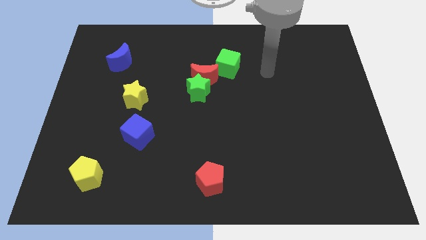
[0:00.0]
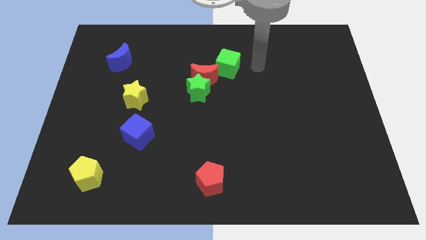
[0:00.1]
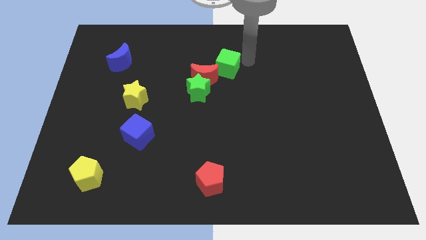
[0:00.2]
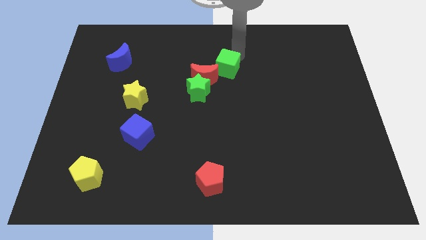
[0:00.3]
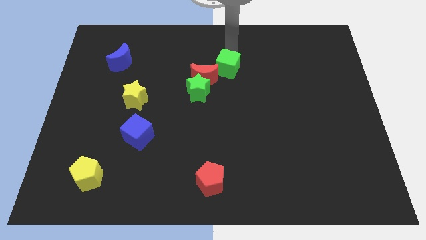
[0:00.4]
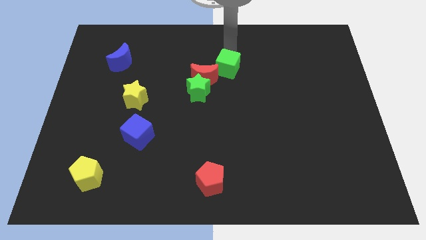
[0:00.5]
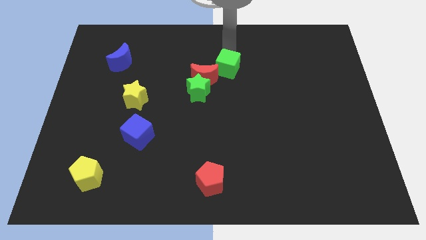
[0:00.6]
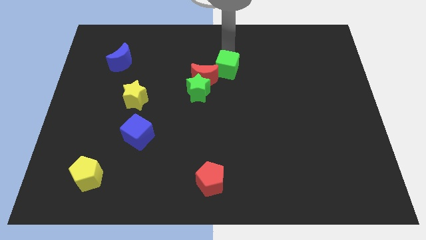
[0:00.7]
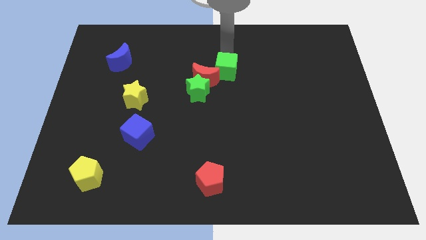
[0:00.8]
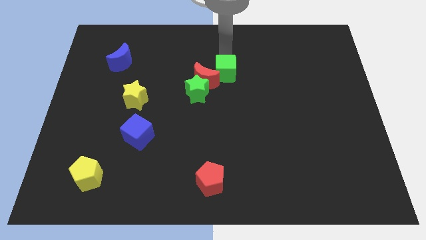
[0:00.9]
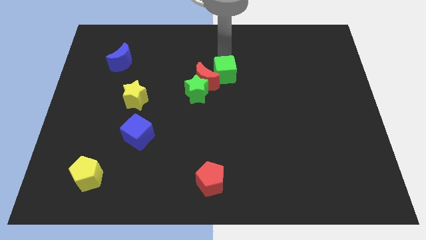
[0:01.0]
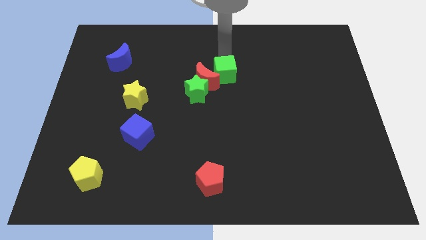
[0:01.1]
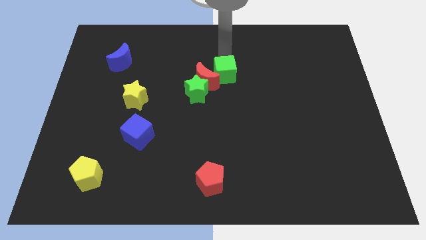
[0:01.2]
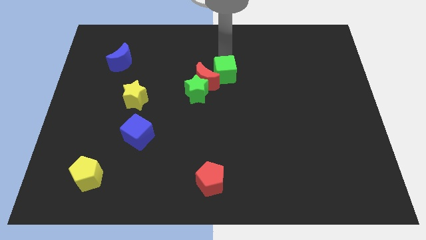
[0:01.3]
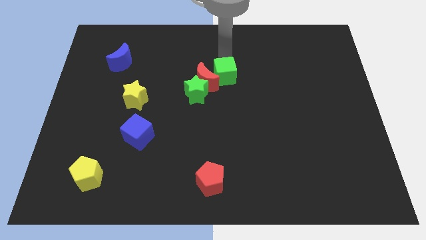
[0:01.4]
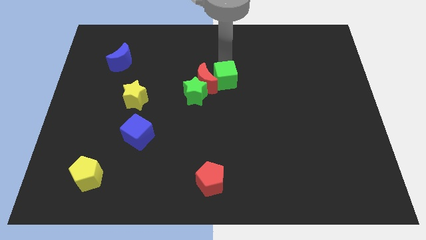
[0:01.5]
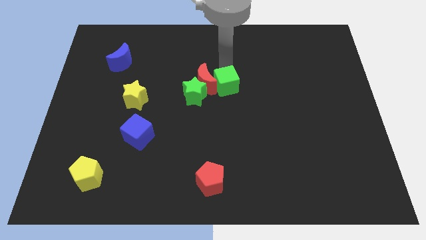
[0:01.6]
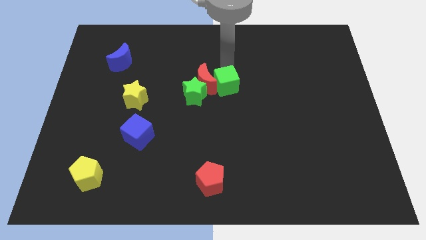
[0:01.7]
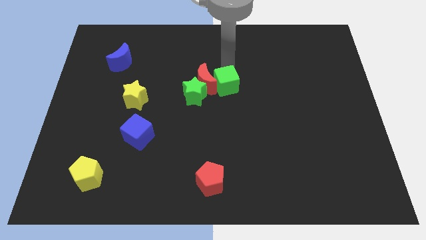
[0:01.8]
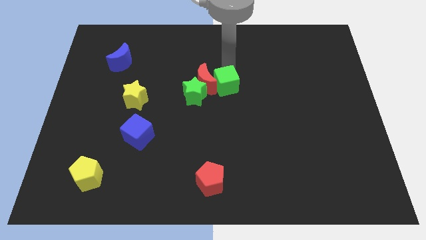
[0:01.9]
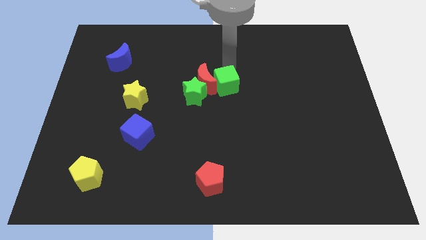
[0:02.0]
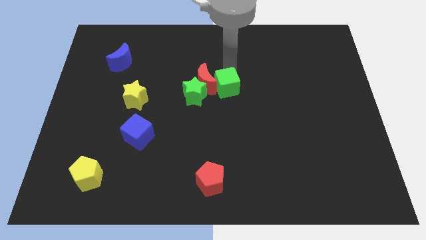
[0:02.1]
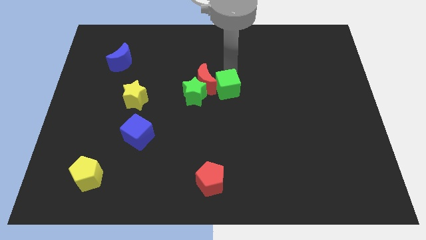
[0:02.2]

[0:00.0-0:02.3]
move the green cube downwards a little

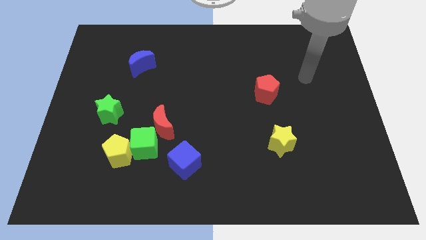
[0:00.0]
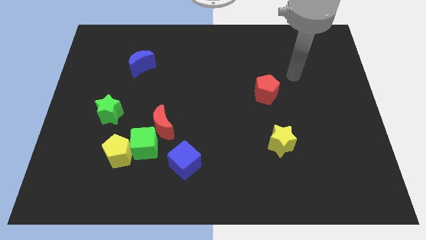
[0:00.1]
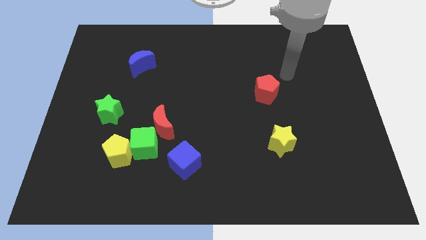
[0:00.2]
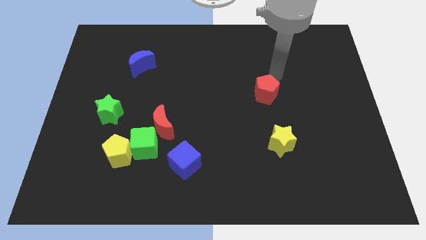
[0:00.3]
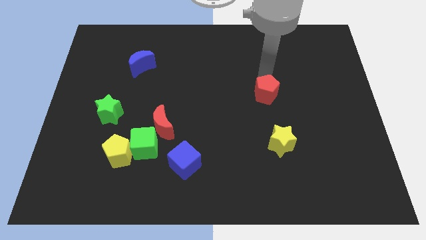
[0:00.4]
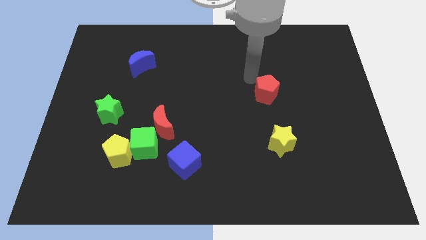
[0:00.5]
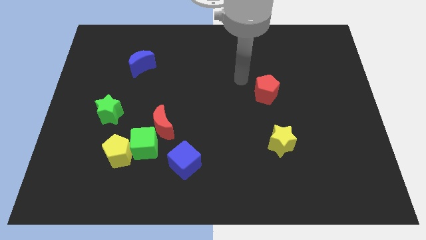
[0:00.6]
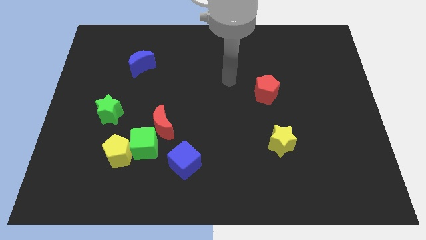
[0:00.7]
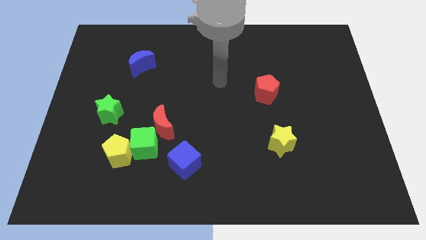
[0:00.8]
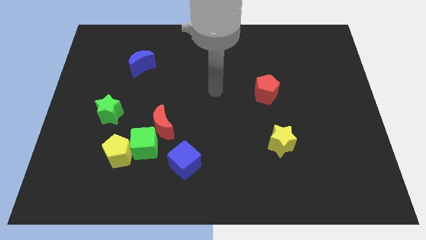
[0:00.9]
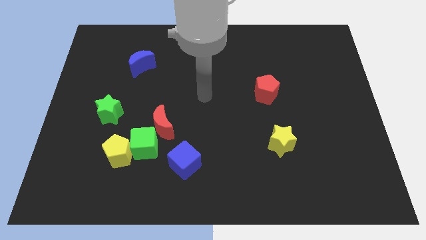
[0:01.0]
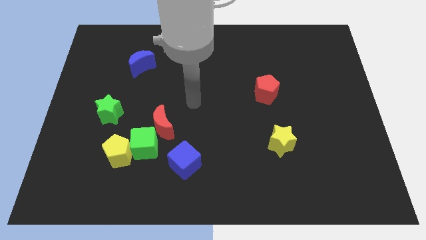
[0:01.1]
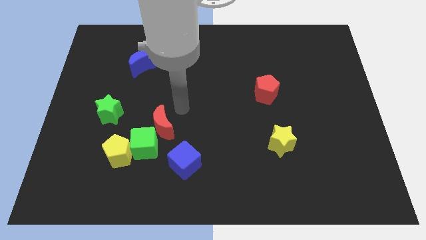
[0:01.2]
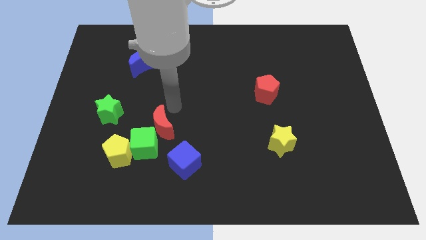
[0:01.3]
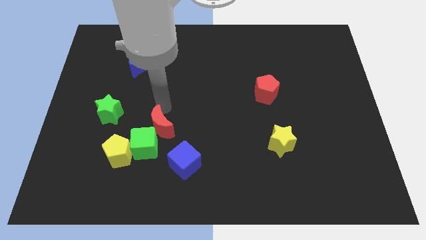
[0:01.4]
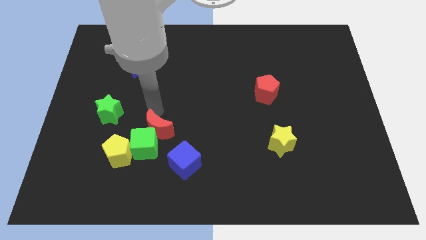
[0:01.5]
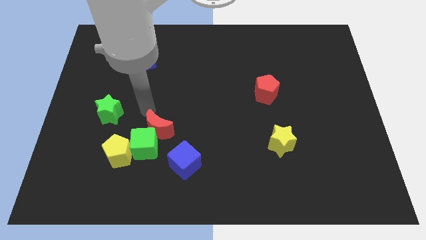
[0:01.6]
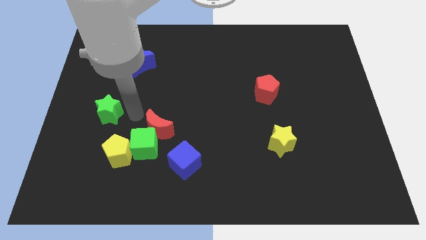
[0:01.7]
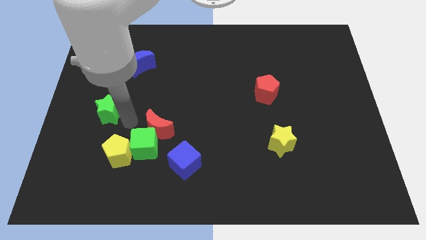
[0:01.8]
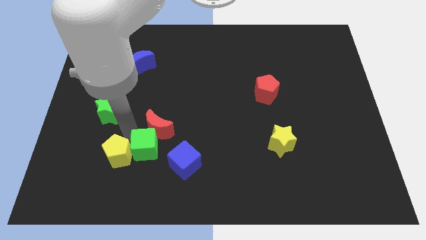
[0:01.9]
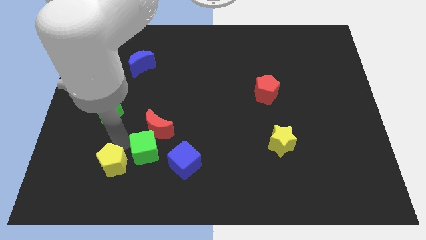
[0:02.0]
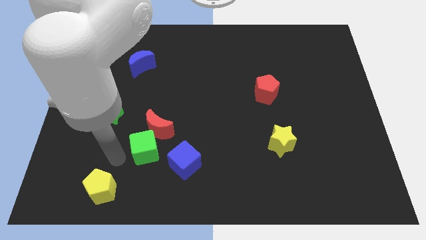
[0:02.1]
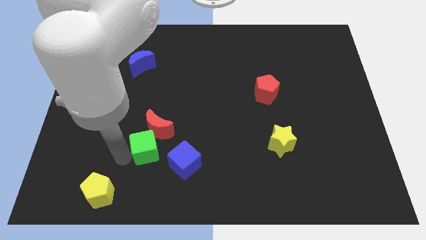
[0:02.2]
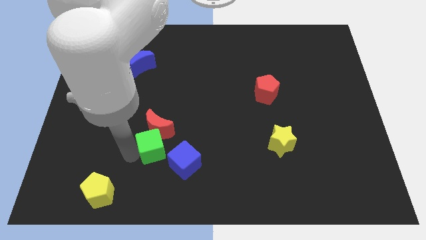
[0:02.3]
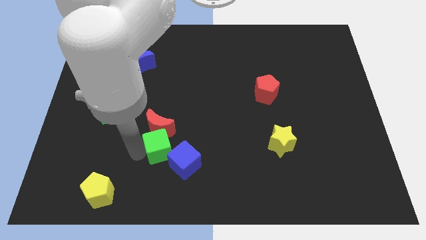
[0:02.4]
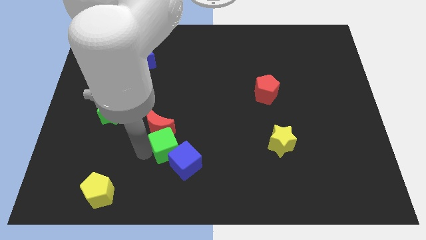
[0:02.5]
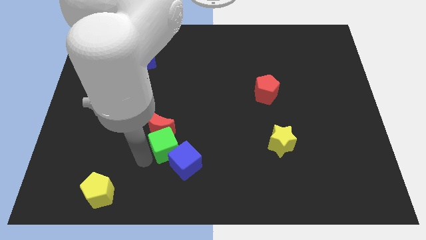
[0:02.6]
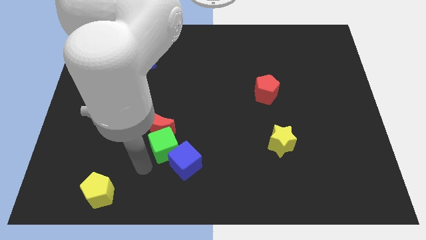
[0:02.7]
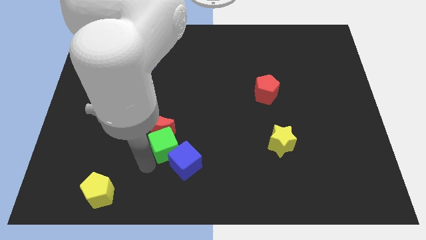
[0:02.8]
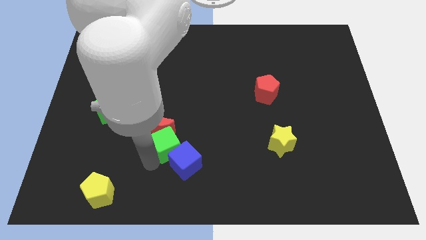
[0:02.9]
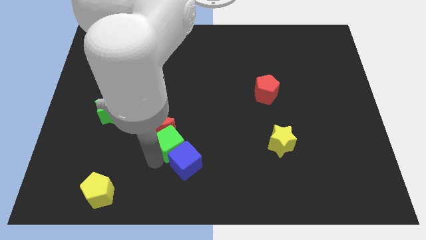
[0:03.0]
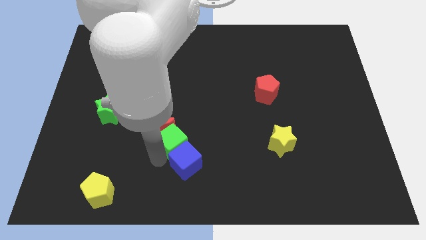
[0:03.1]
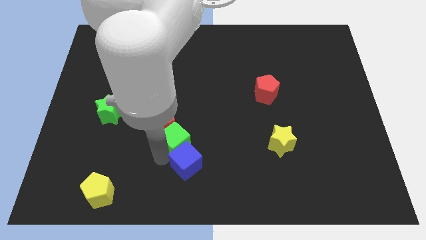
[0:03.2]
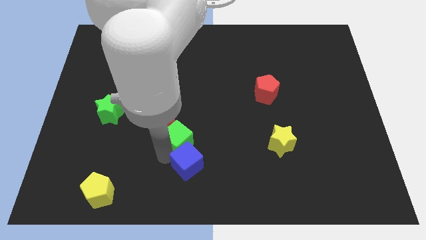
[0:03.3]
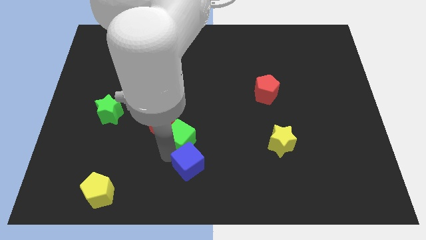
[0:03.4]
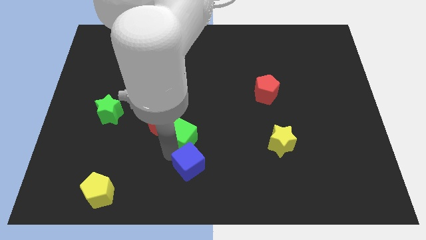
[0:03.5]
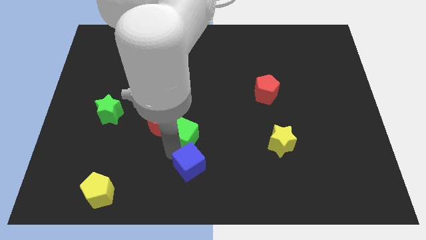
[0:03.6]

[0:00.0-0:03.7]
slide the green cube a little bit up and right diagonally

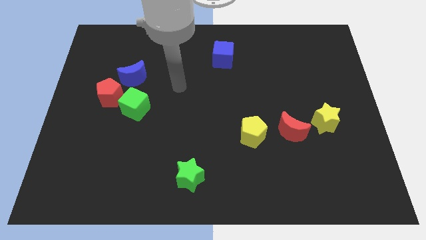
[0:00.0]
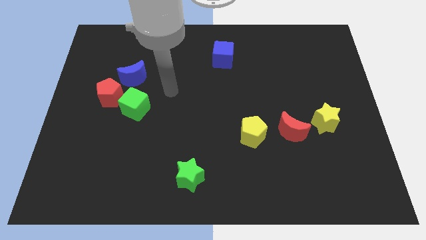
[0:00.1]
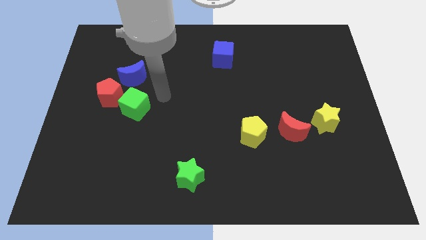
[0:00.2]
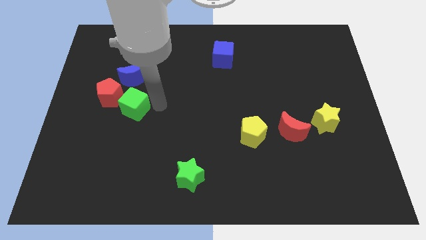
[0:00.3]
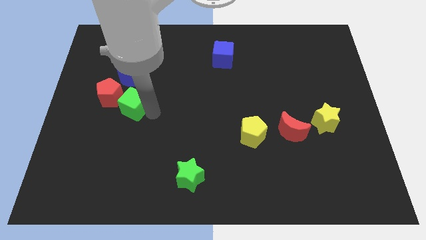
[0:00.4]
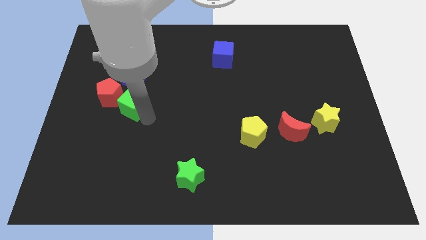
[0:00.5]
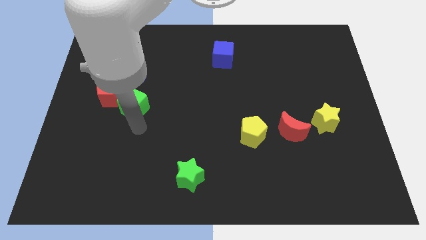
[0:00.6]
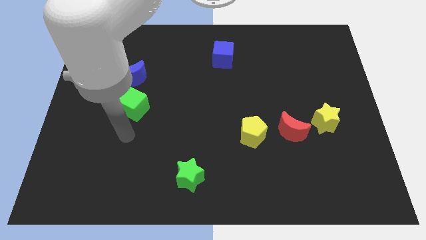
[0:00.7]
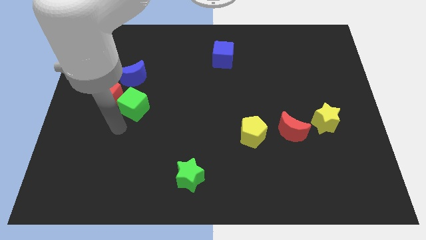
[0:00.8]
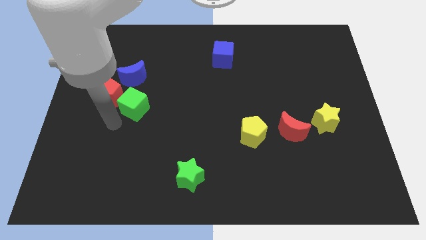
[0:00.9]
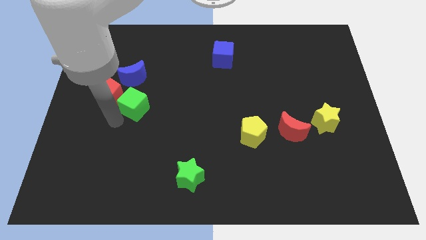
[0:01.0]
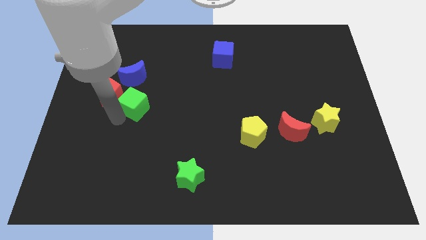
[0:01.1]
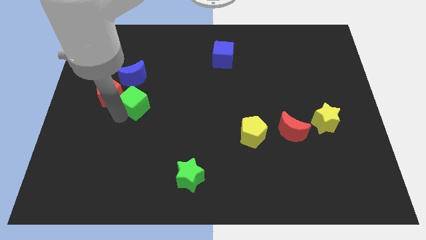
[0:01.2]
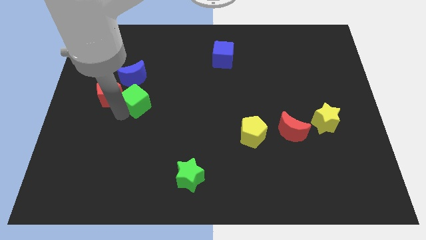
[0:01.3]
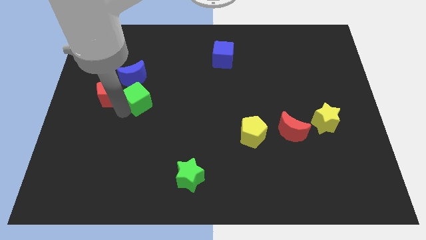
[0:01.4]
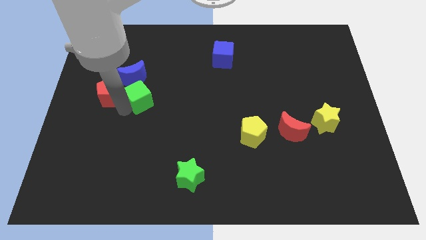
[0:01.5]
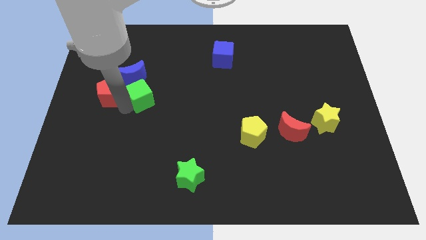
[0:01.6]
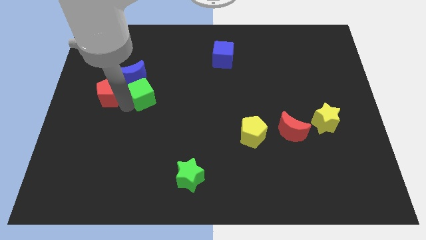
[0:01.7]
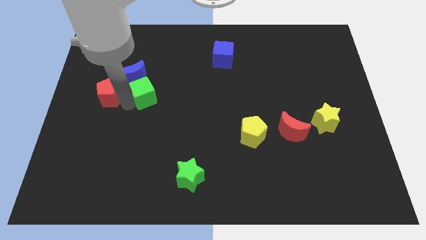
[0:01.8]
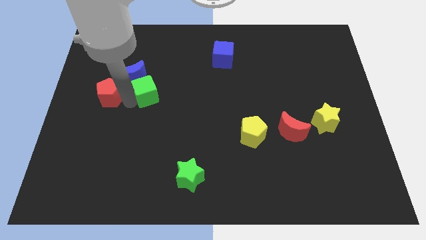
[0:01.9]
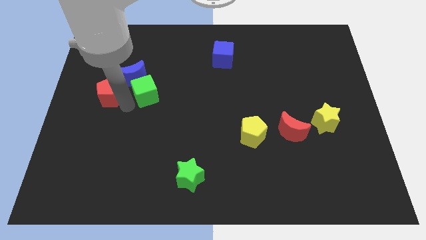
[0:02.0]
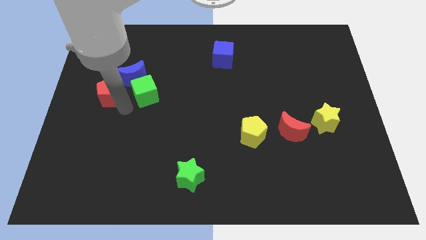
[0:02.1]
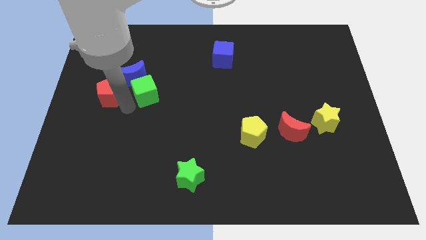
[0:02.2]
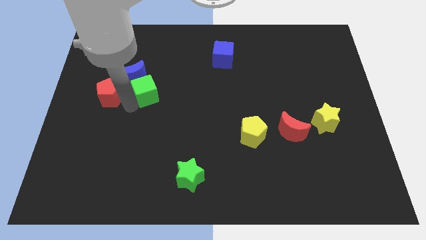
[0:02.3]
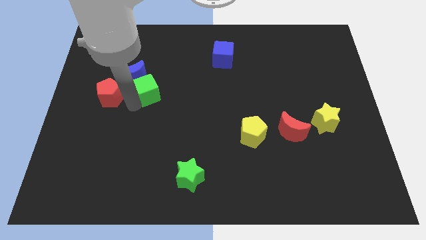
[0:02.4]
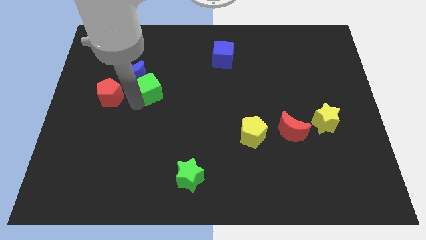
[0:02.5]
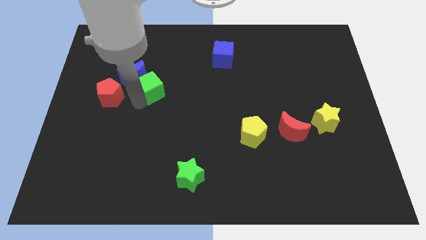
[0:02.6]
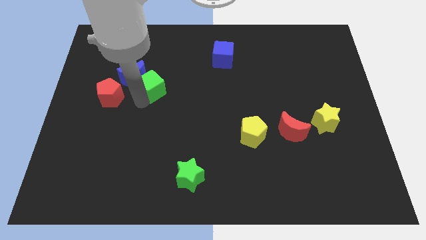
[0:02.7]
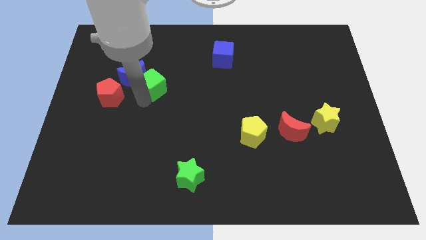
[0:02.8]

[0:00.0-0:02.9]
move the green cube upwards and right diagonally a little bit
